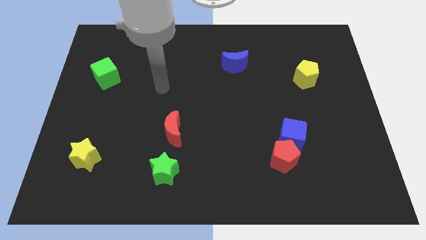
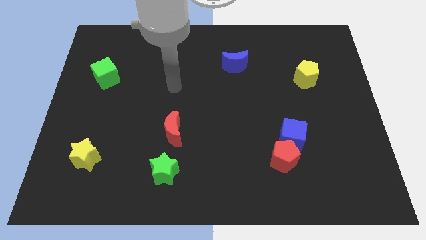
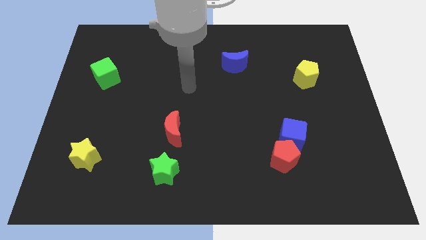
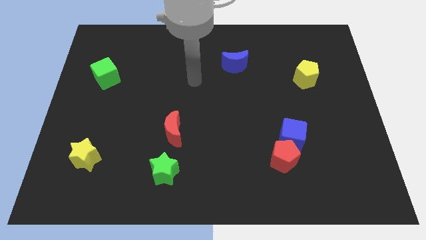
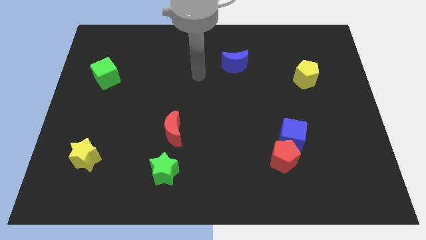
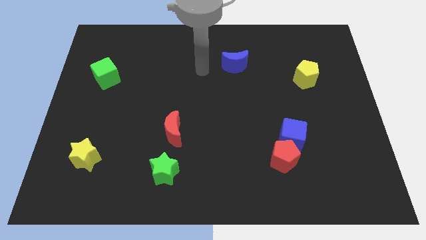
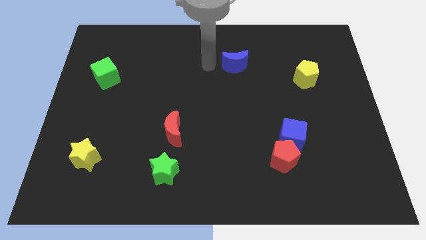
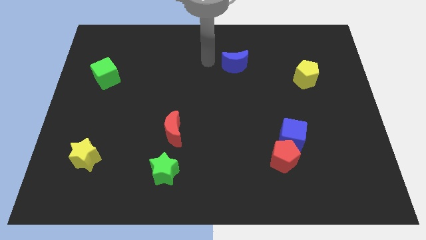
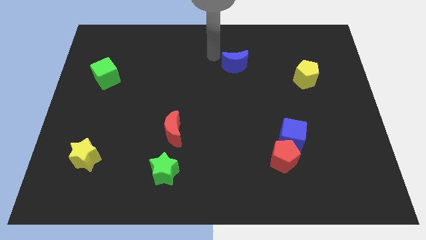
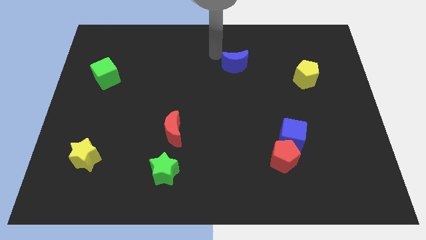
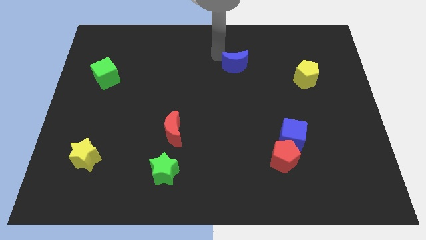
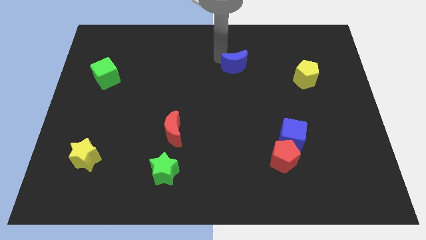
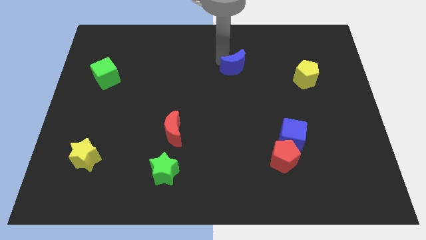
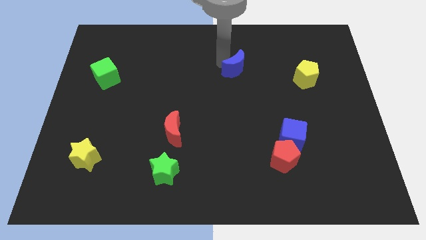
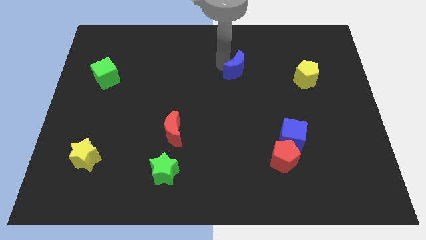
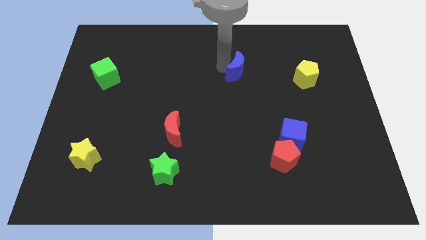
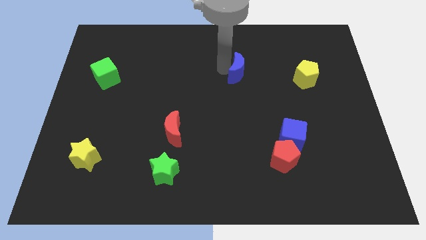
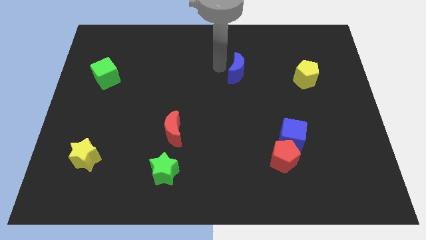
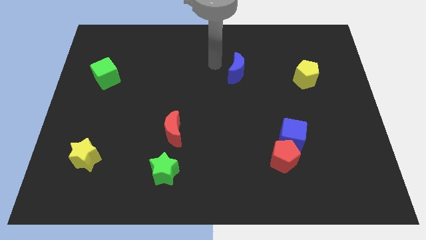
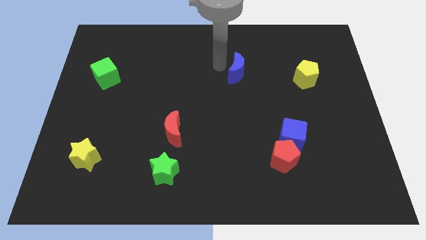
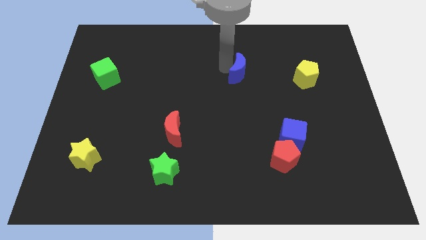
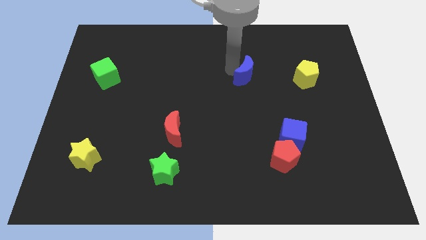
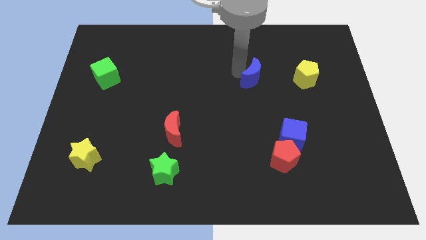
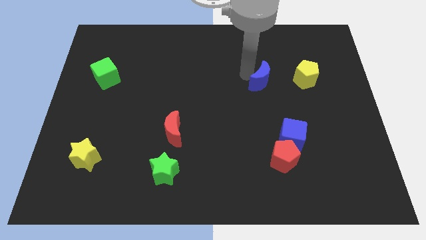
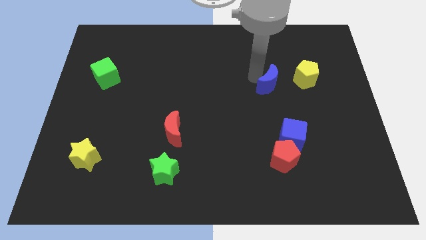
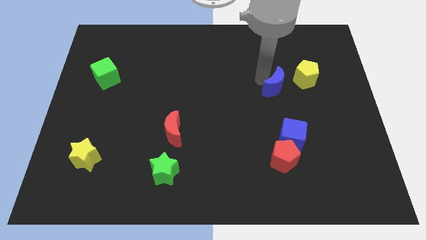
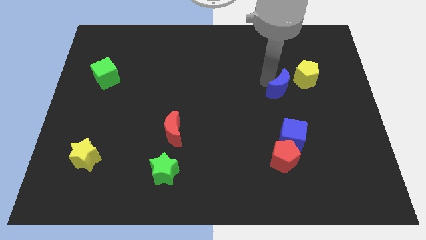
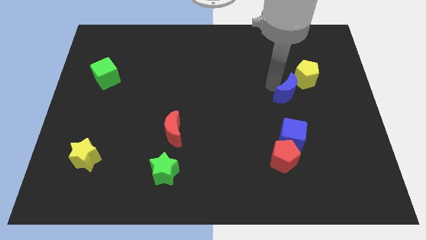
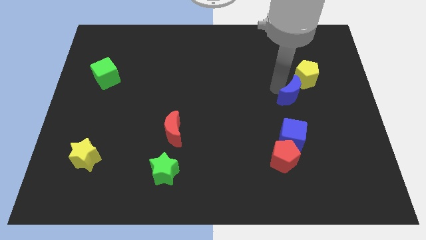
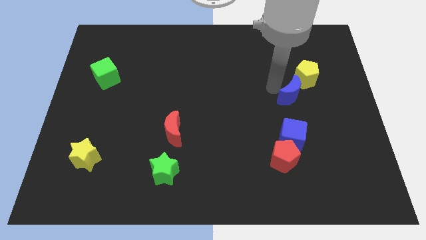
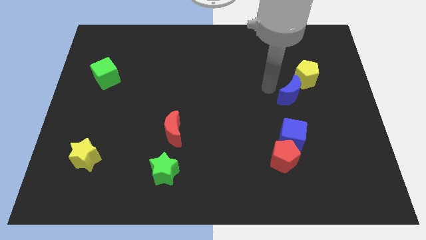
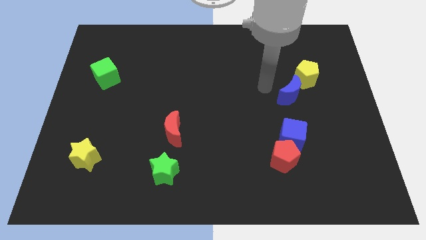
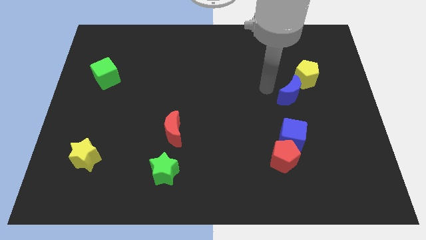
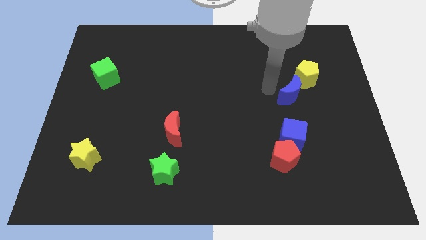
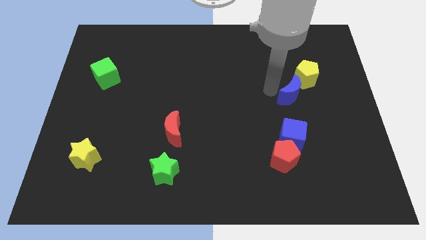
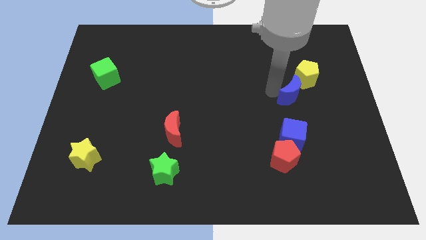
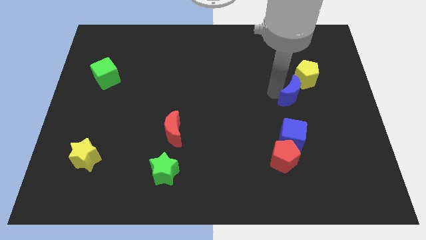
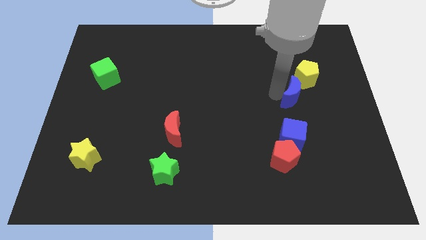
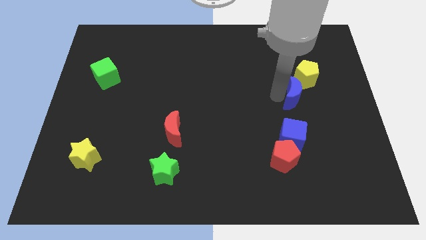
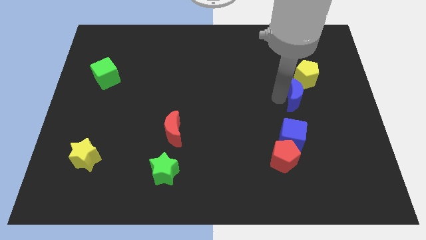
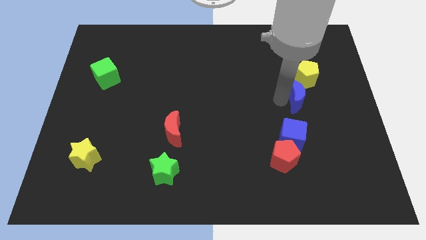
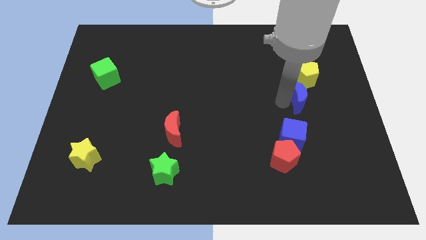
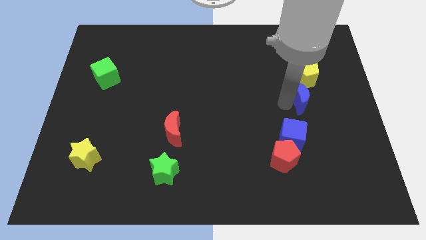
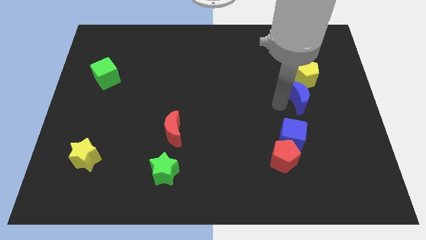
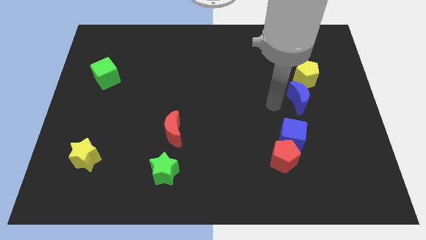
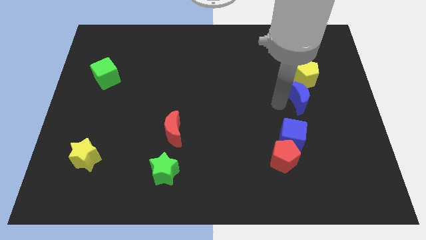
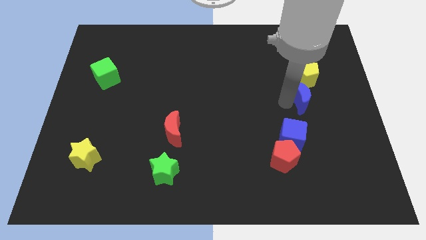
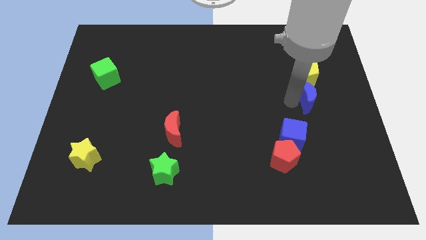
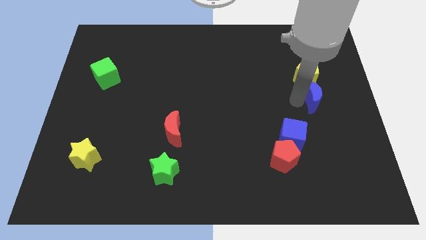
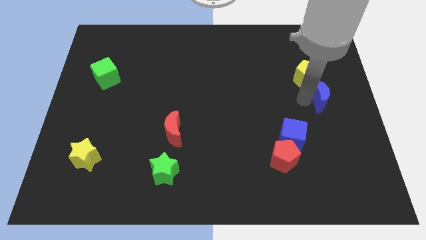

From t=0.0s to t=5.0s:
put the blue moon to the center right
